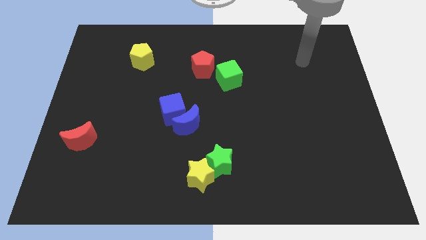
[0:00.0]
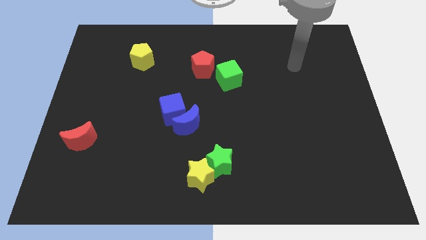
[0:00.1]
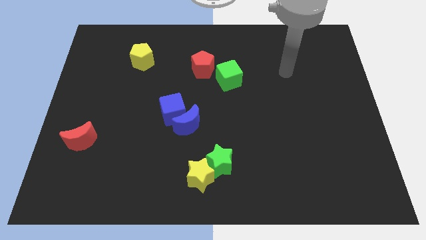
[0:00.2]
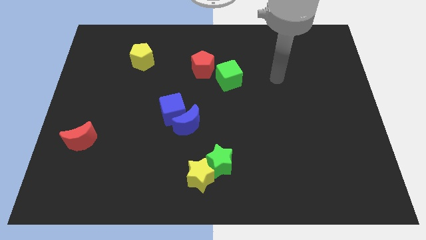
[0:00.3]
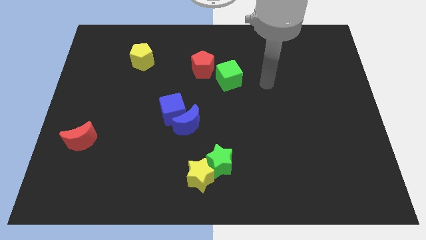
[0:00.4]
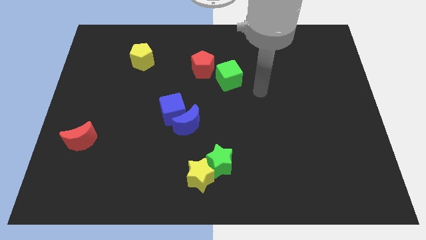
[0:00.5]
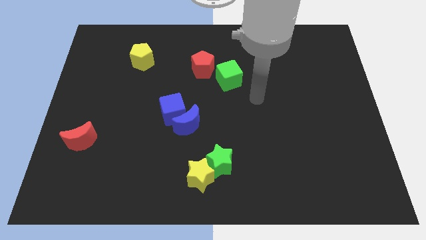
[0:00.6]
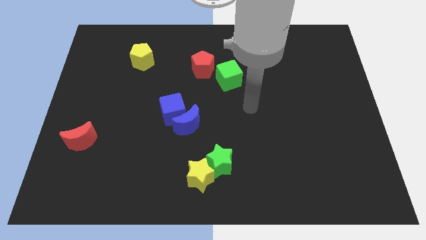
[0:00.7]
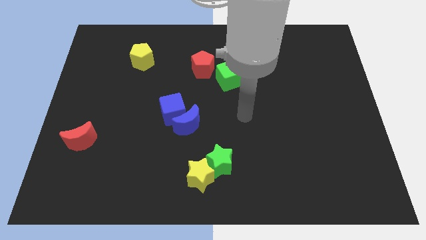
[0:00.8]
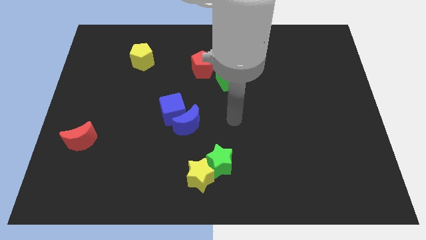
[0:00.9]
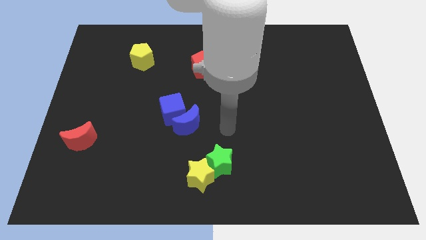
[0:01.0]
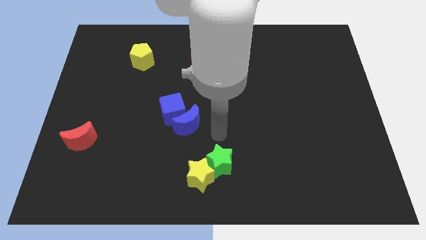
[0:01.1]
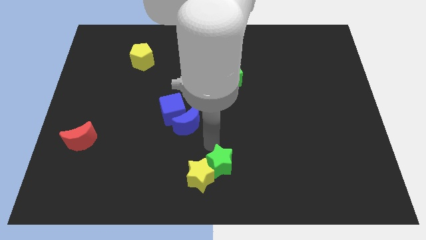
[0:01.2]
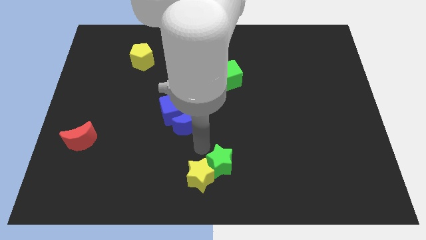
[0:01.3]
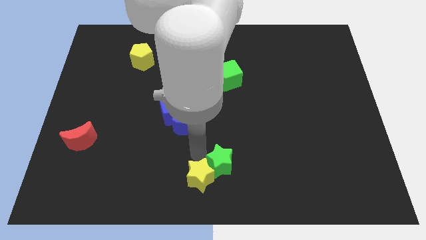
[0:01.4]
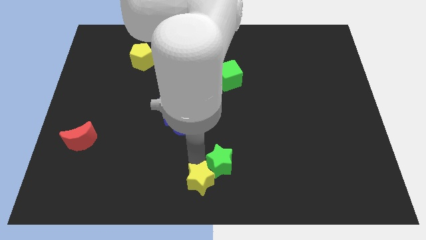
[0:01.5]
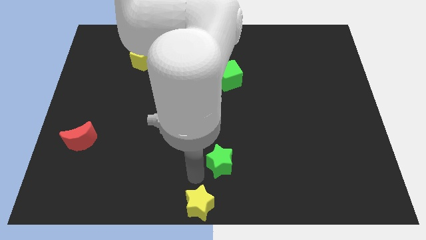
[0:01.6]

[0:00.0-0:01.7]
move the green star away from the yellow star

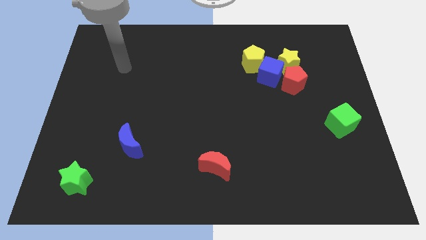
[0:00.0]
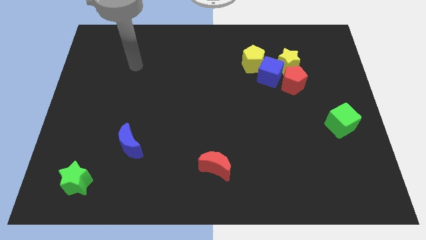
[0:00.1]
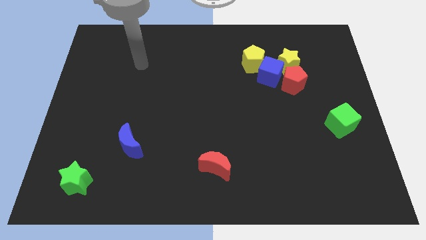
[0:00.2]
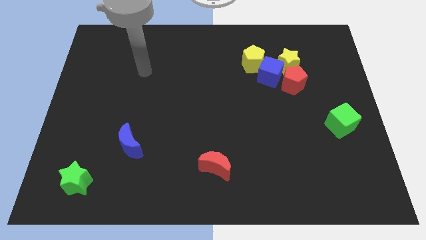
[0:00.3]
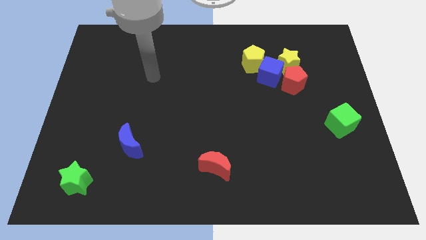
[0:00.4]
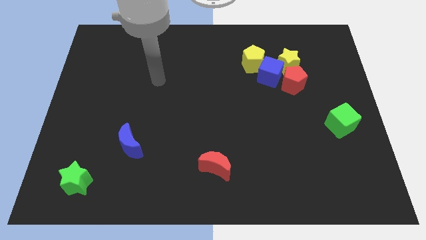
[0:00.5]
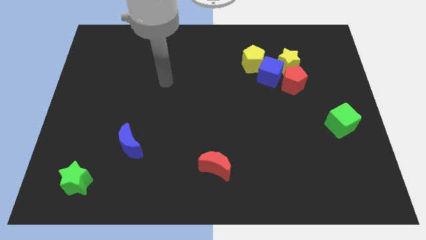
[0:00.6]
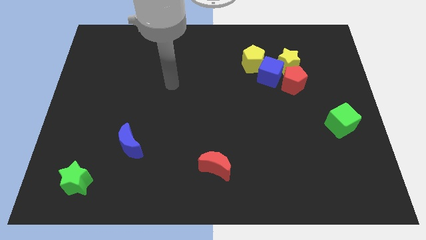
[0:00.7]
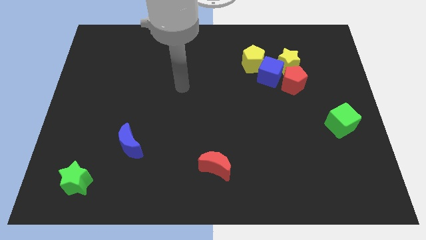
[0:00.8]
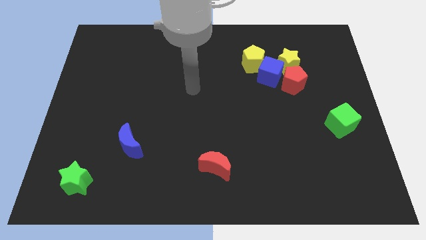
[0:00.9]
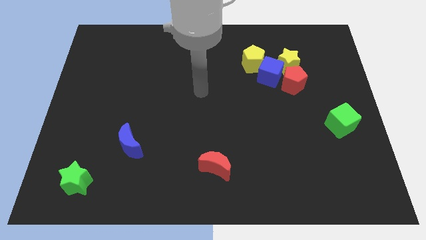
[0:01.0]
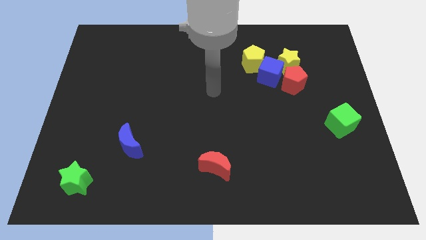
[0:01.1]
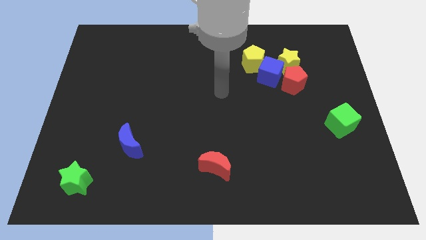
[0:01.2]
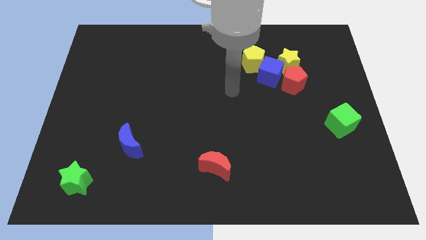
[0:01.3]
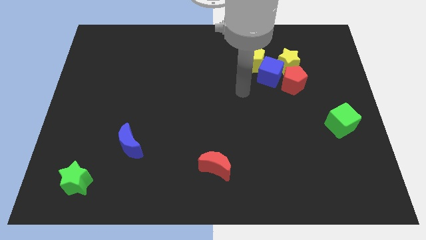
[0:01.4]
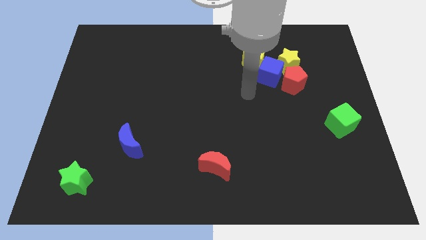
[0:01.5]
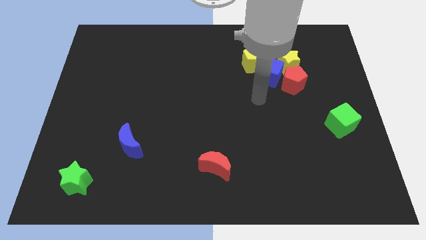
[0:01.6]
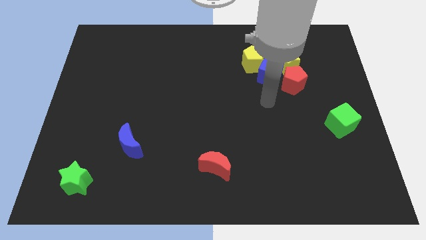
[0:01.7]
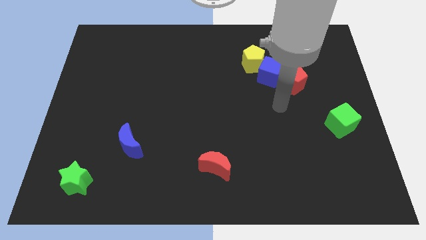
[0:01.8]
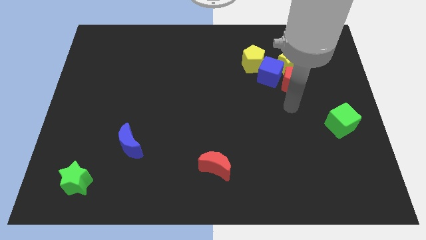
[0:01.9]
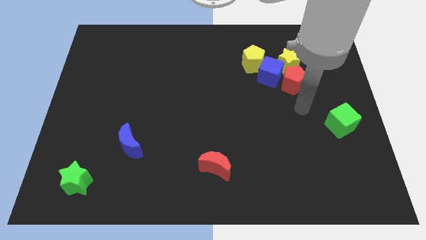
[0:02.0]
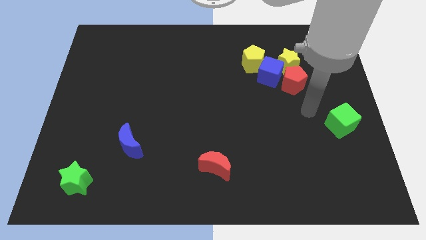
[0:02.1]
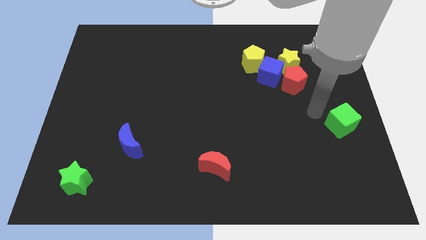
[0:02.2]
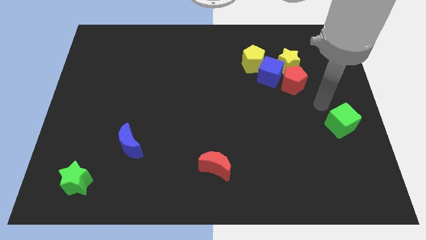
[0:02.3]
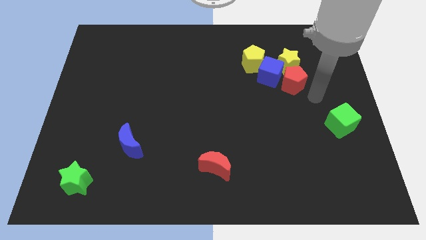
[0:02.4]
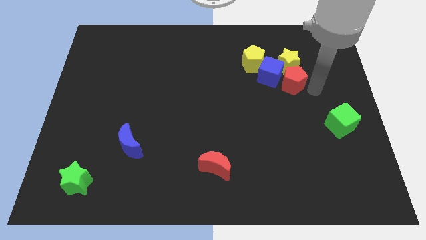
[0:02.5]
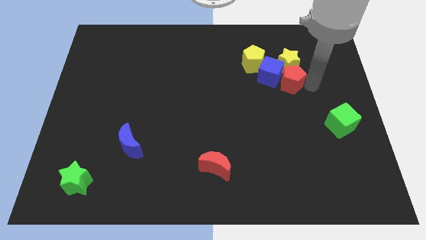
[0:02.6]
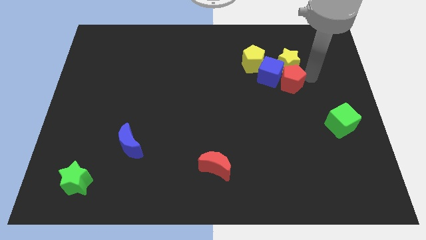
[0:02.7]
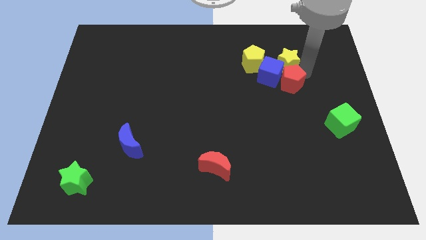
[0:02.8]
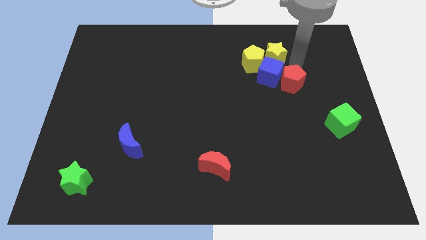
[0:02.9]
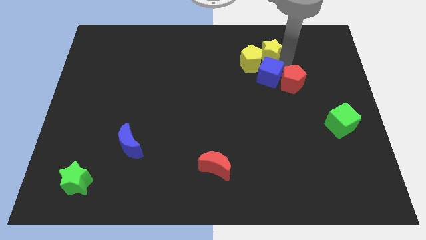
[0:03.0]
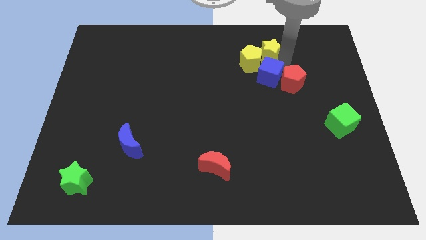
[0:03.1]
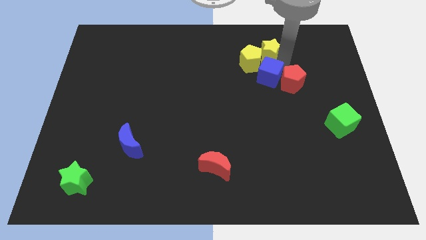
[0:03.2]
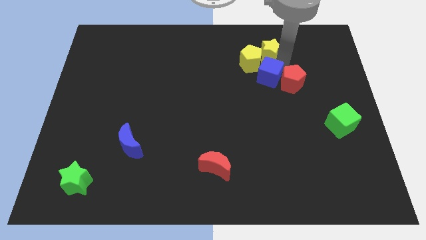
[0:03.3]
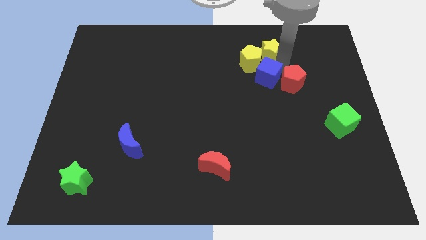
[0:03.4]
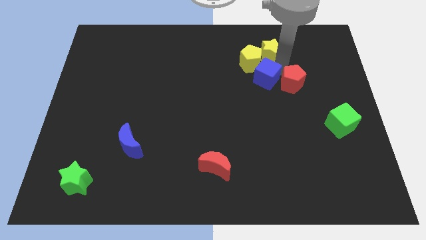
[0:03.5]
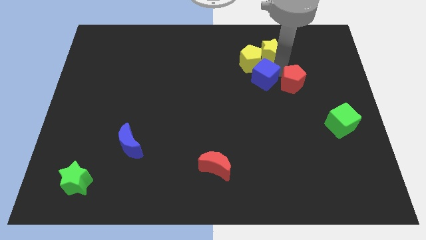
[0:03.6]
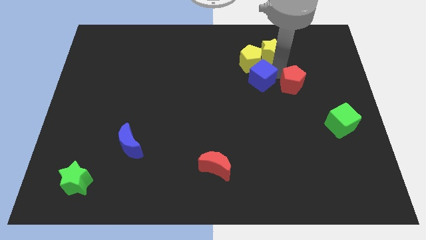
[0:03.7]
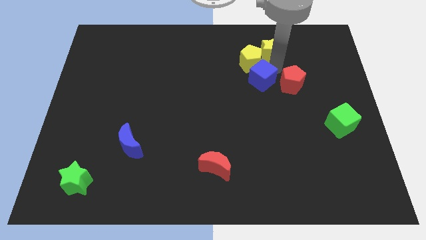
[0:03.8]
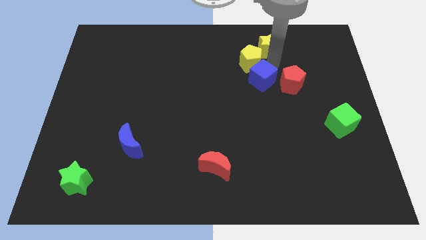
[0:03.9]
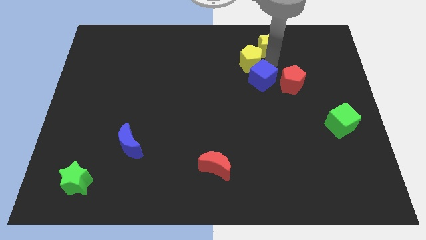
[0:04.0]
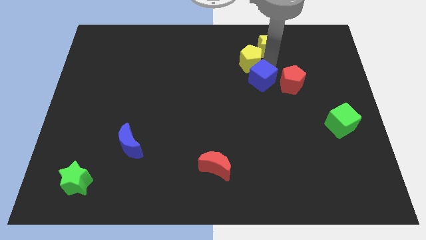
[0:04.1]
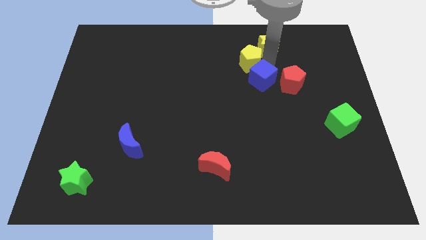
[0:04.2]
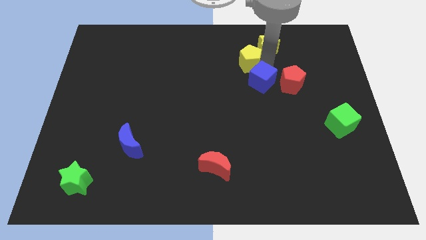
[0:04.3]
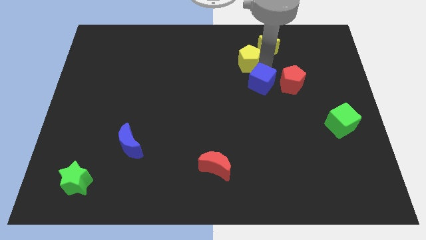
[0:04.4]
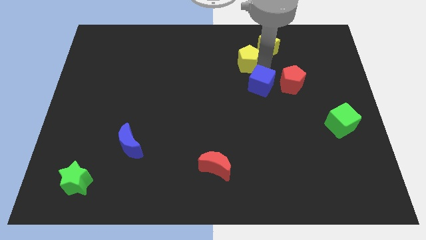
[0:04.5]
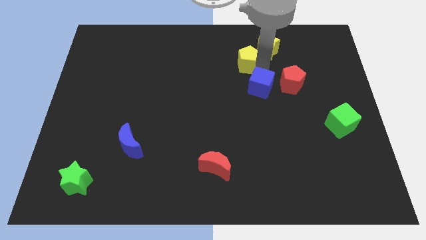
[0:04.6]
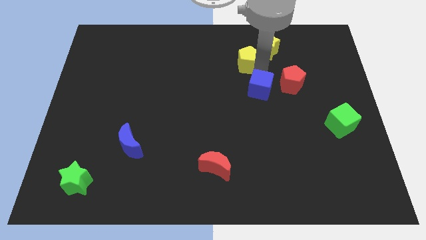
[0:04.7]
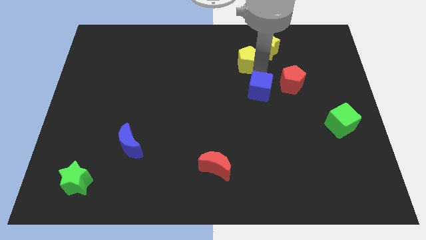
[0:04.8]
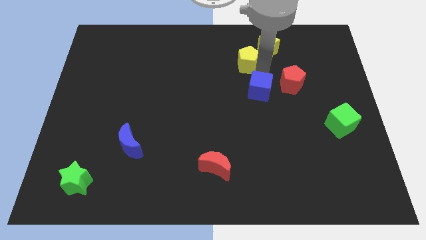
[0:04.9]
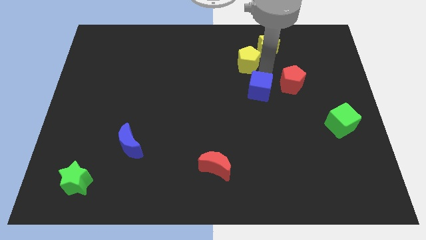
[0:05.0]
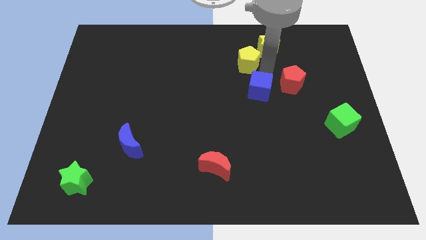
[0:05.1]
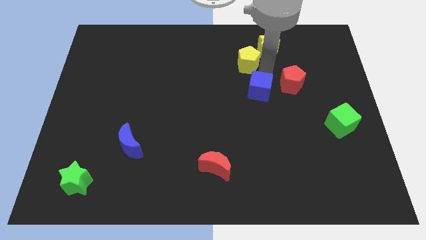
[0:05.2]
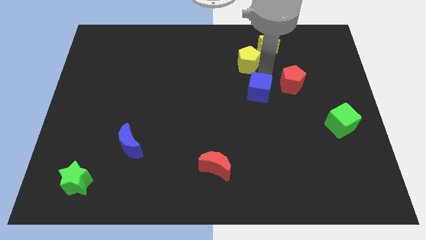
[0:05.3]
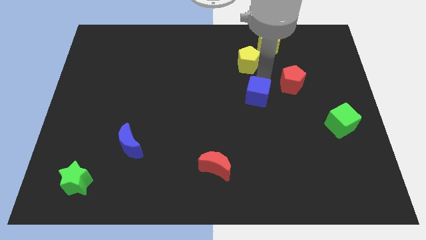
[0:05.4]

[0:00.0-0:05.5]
separate the blue cube from the clump

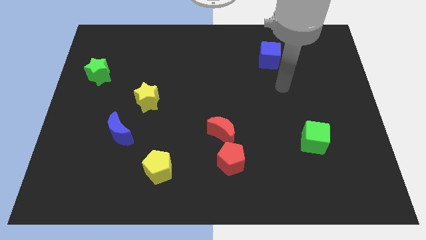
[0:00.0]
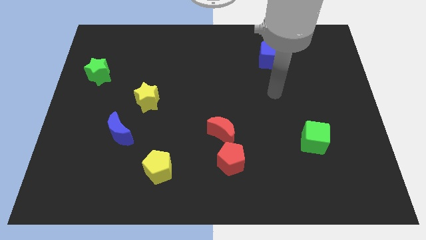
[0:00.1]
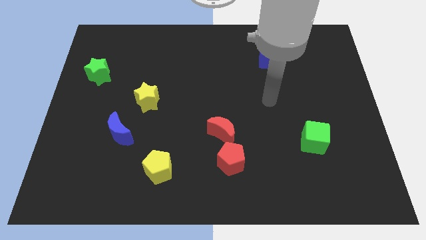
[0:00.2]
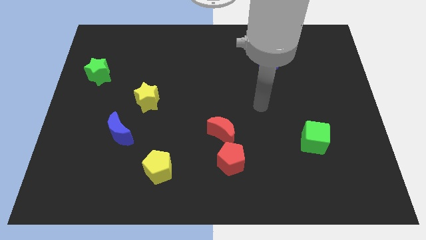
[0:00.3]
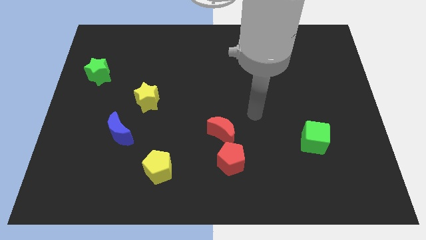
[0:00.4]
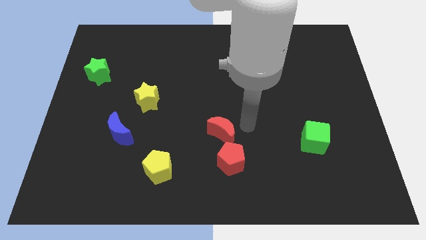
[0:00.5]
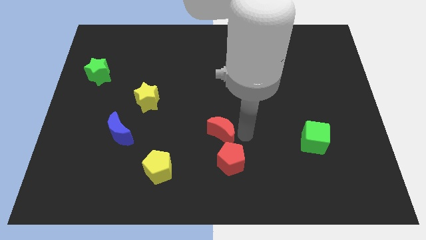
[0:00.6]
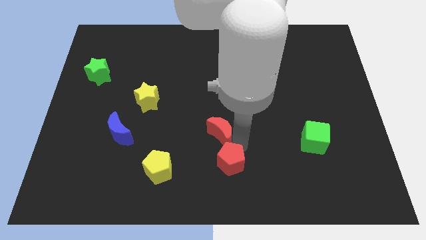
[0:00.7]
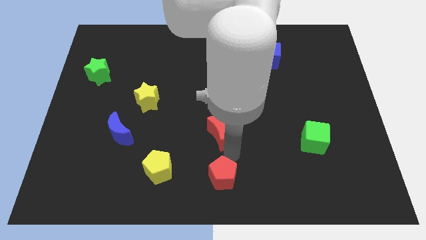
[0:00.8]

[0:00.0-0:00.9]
separate the red moon from the red pentagon

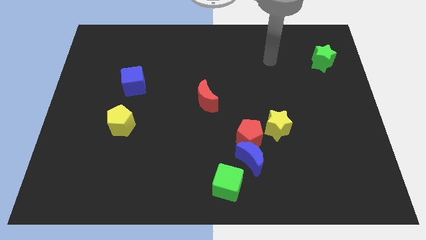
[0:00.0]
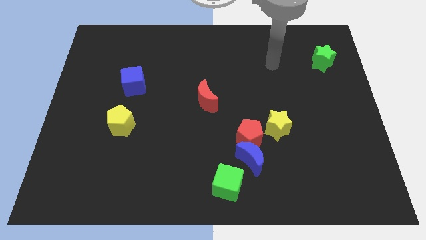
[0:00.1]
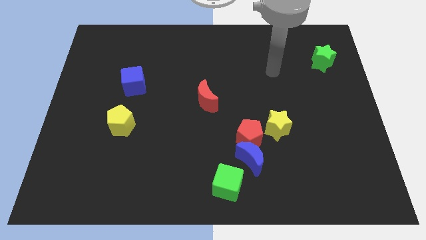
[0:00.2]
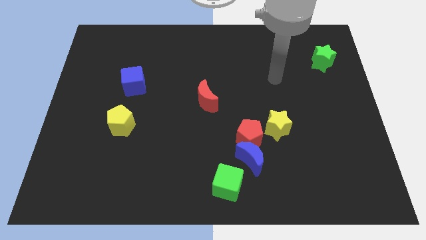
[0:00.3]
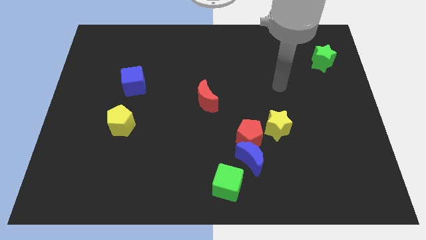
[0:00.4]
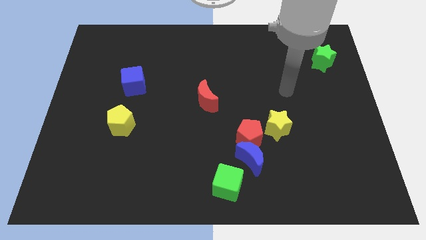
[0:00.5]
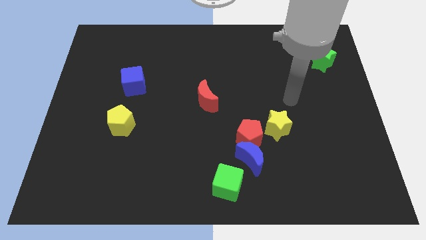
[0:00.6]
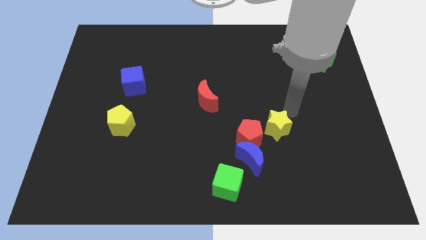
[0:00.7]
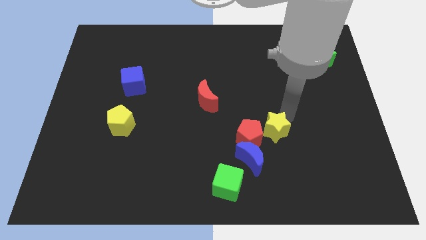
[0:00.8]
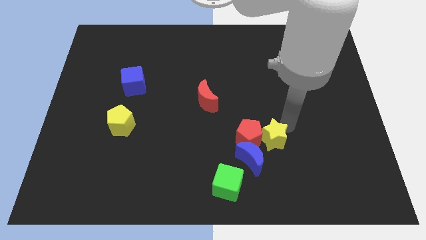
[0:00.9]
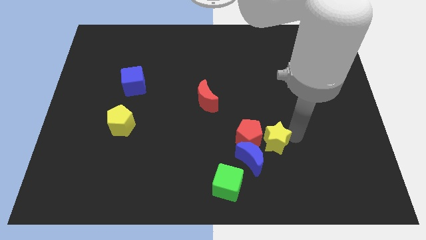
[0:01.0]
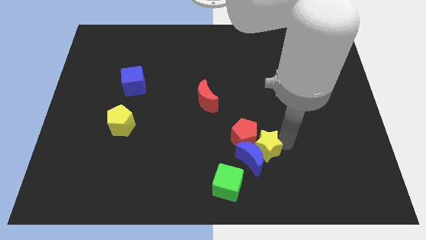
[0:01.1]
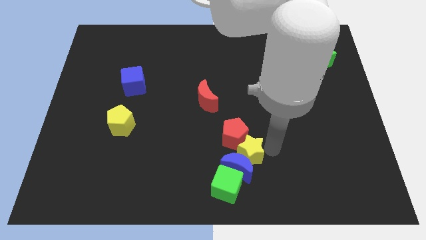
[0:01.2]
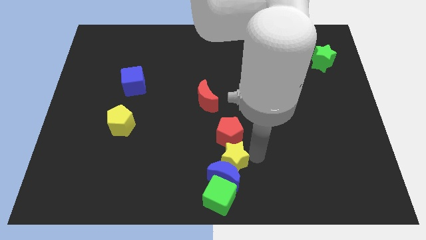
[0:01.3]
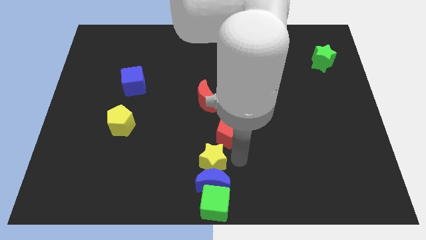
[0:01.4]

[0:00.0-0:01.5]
separate the red pentagon from the blue moon and yellow star

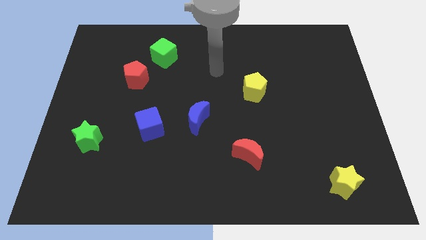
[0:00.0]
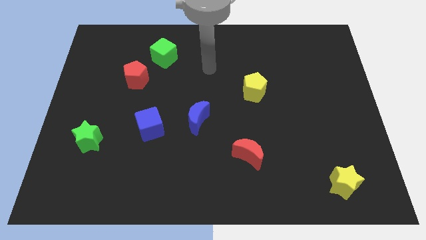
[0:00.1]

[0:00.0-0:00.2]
pull the red pentagon apart from the green cube
